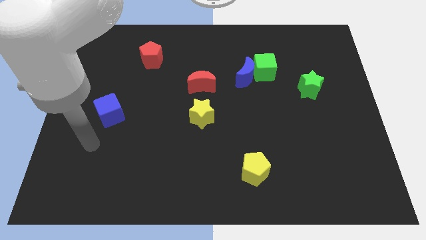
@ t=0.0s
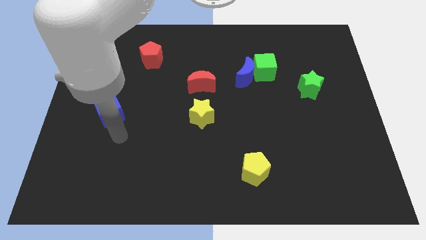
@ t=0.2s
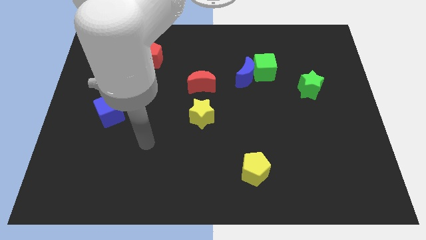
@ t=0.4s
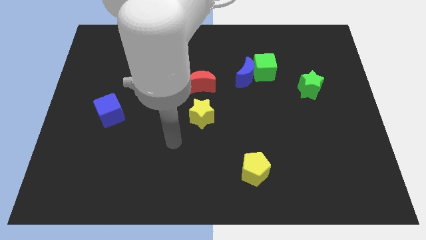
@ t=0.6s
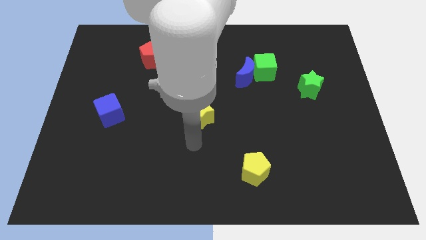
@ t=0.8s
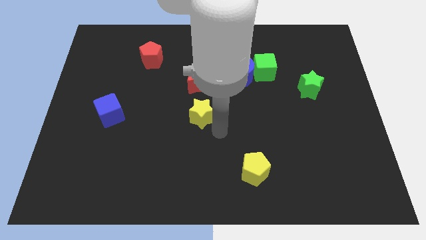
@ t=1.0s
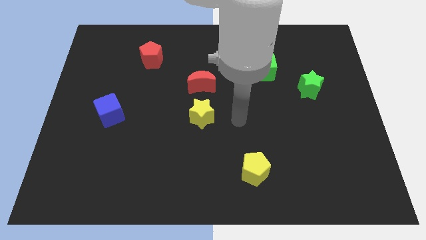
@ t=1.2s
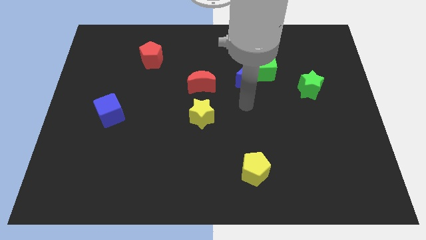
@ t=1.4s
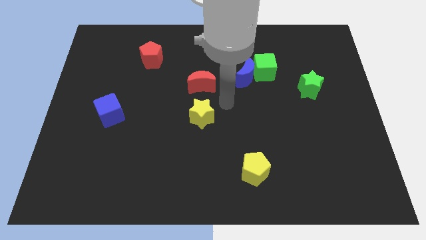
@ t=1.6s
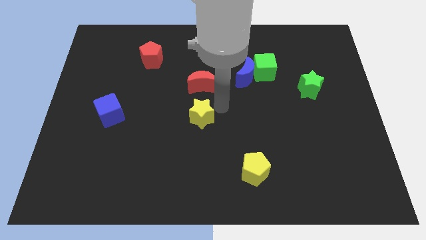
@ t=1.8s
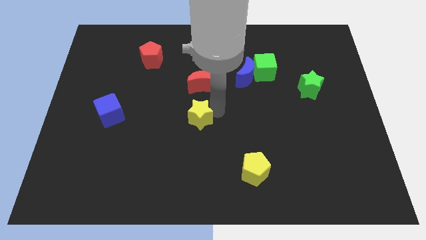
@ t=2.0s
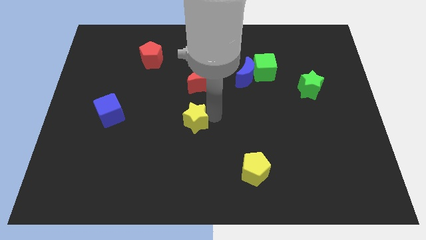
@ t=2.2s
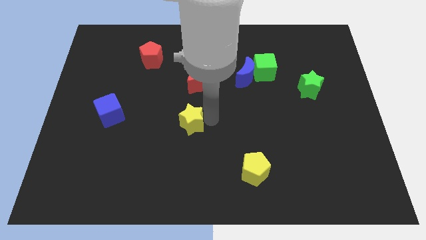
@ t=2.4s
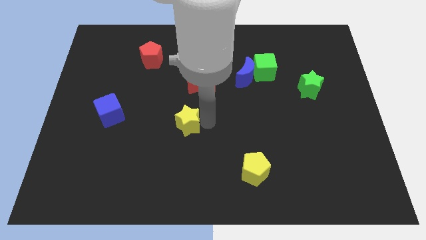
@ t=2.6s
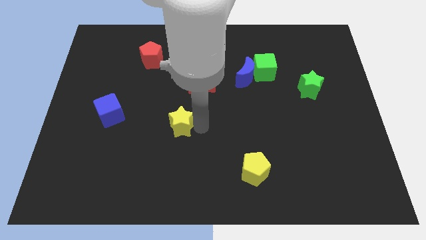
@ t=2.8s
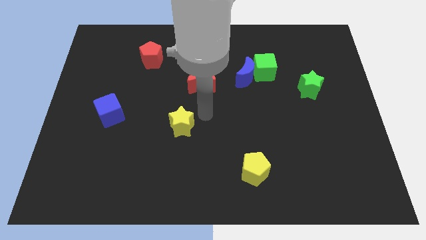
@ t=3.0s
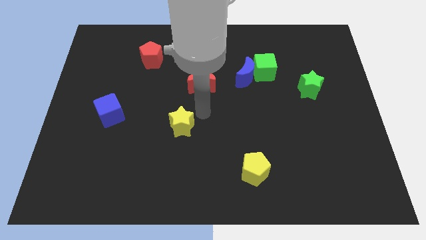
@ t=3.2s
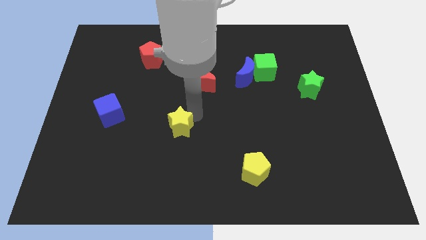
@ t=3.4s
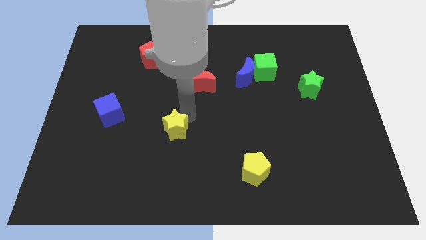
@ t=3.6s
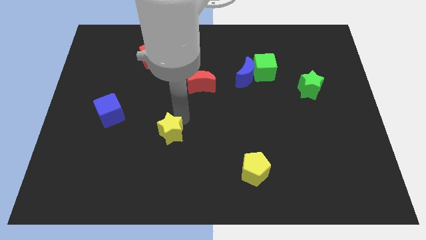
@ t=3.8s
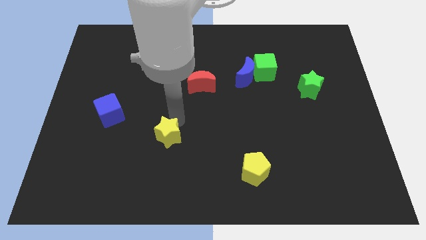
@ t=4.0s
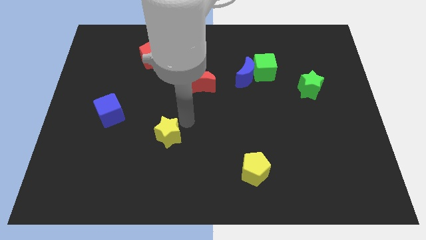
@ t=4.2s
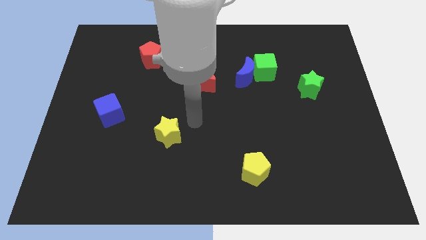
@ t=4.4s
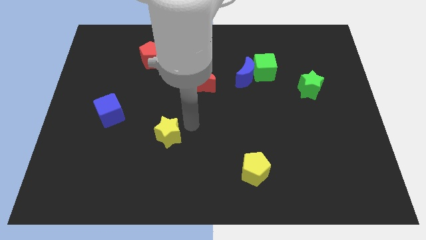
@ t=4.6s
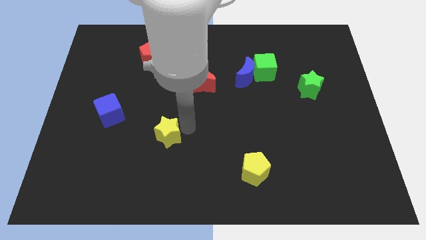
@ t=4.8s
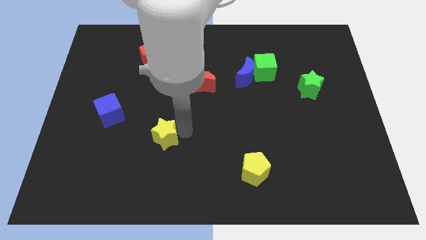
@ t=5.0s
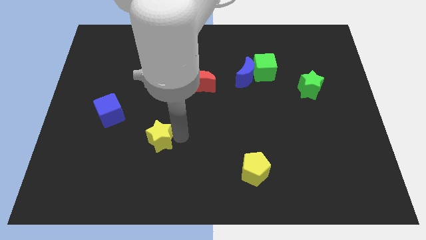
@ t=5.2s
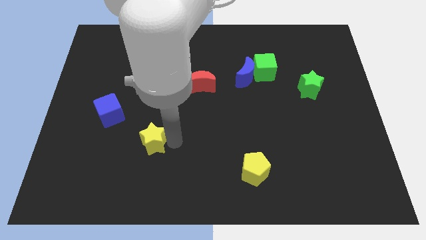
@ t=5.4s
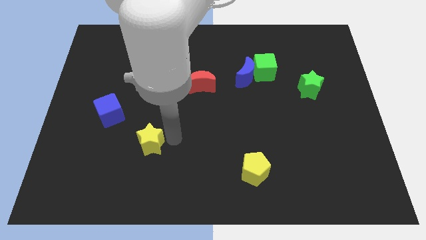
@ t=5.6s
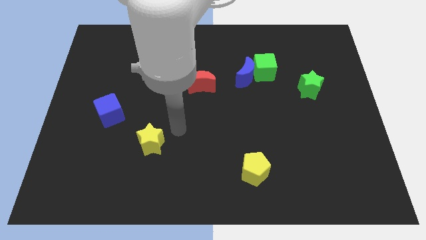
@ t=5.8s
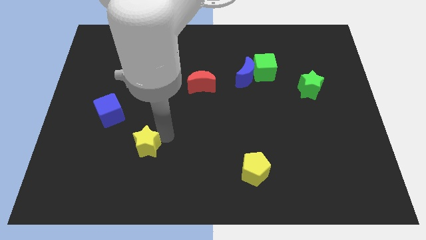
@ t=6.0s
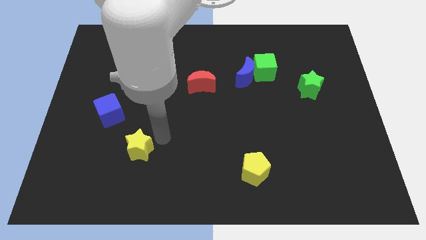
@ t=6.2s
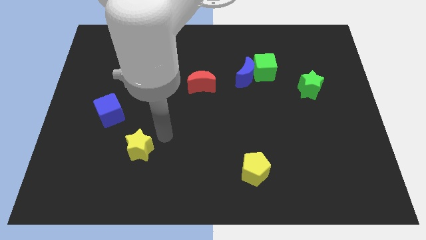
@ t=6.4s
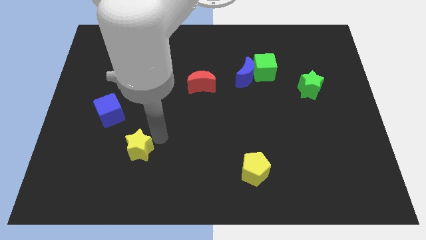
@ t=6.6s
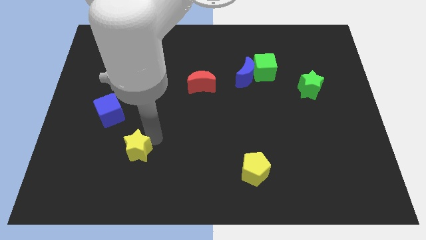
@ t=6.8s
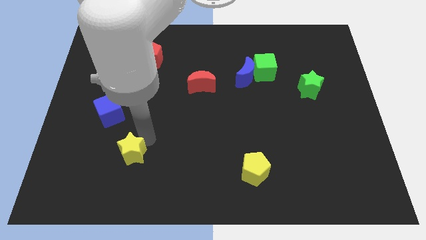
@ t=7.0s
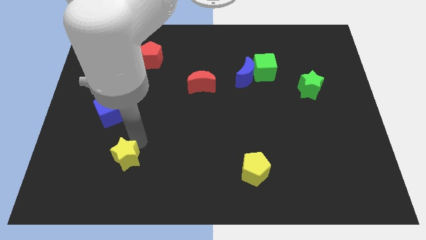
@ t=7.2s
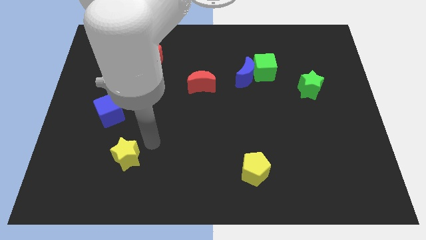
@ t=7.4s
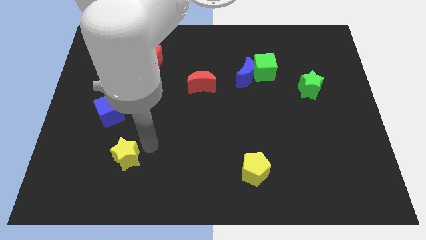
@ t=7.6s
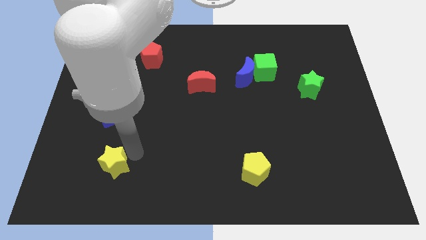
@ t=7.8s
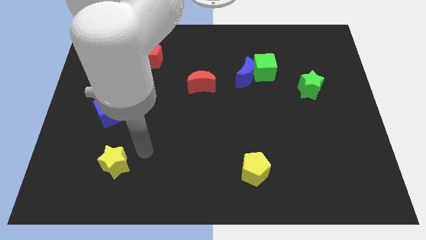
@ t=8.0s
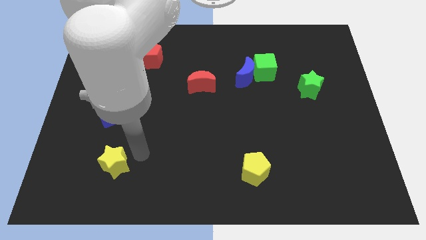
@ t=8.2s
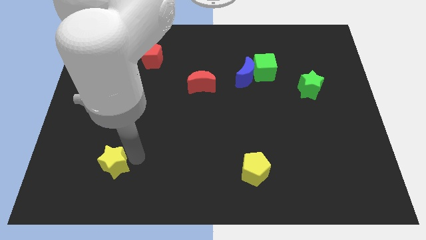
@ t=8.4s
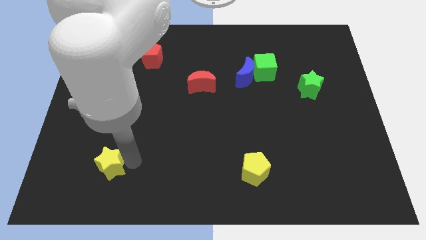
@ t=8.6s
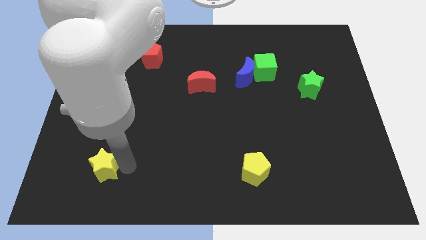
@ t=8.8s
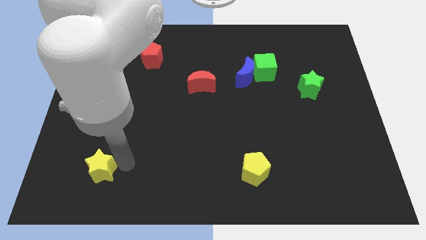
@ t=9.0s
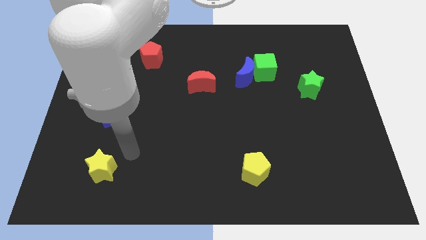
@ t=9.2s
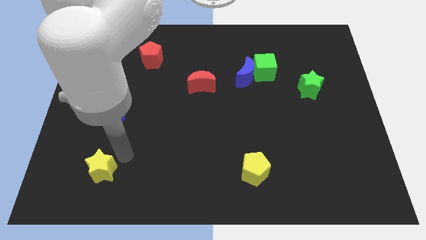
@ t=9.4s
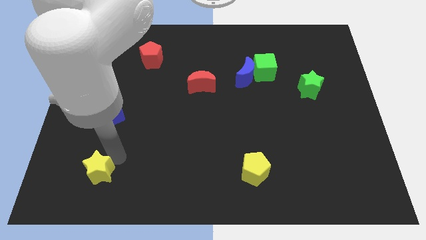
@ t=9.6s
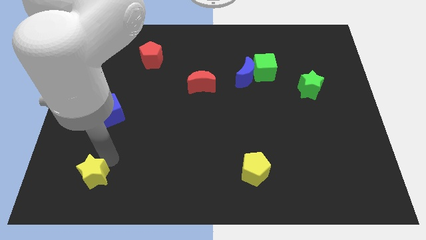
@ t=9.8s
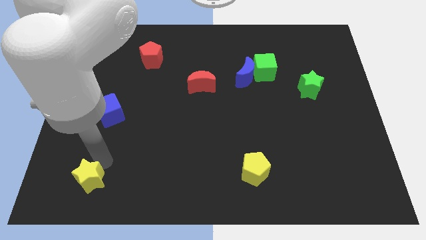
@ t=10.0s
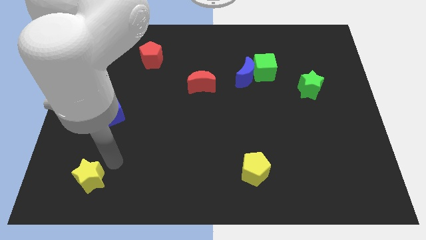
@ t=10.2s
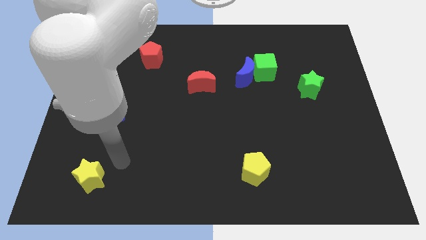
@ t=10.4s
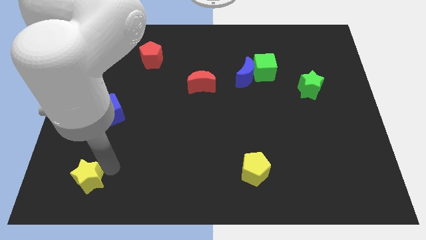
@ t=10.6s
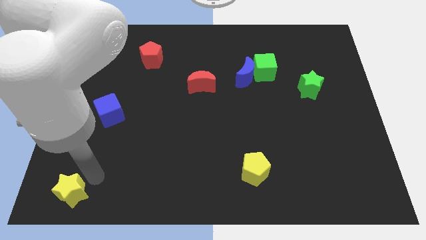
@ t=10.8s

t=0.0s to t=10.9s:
push the yellow star to the bottom left corner

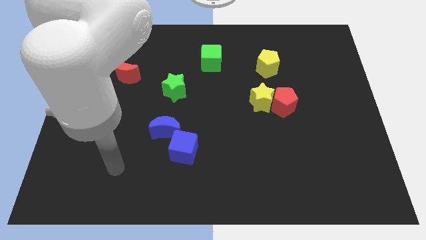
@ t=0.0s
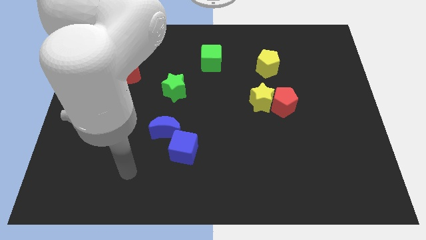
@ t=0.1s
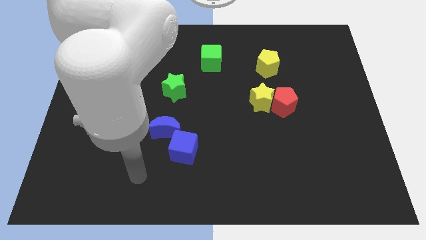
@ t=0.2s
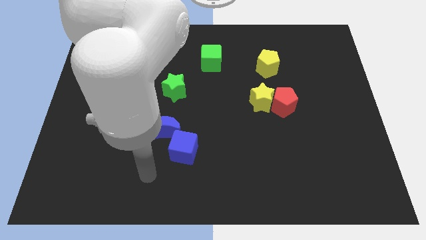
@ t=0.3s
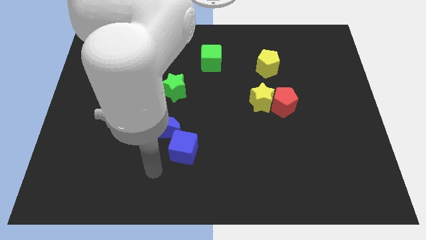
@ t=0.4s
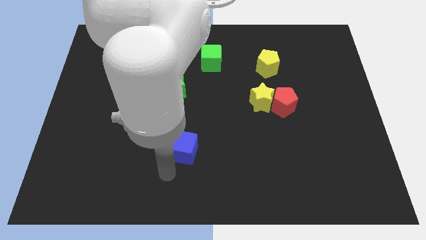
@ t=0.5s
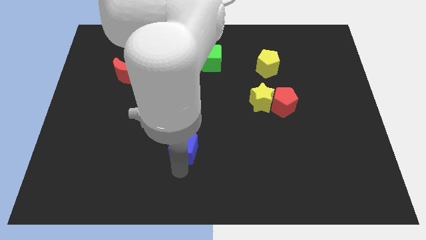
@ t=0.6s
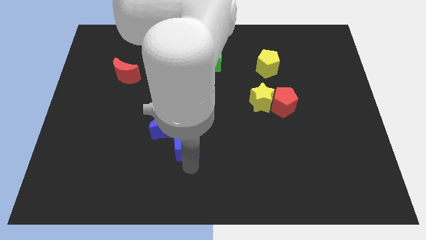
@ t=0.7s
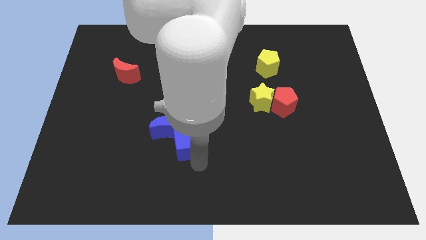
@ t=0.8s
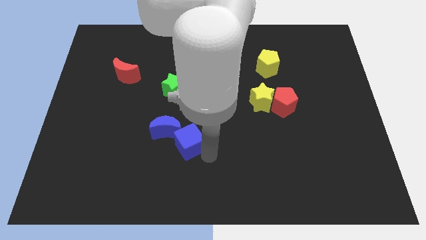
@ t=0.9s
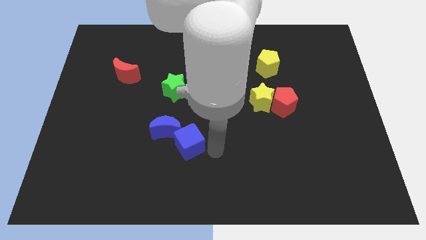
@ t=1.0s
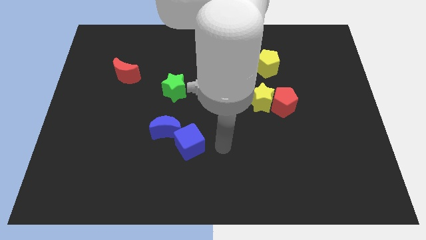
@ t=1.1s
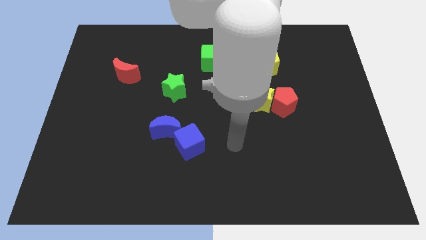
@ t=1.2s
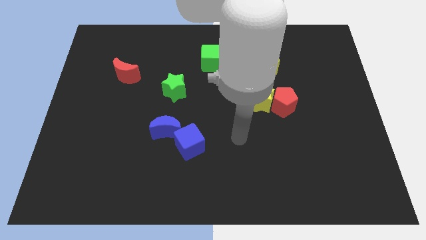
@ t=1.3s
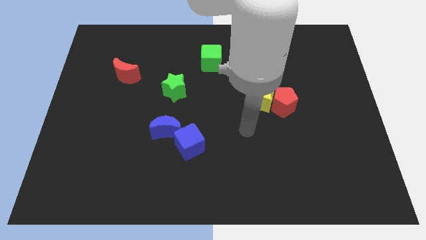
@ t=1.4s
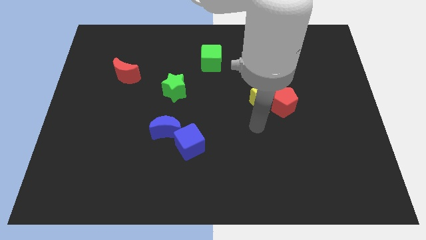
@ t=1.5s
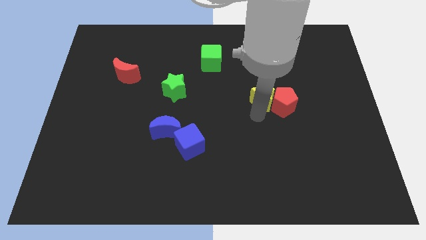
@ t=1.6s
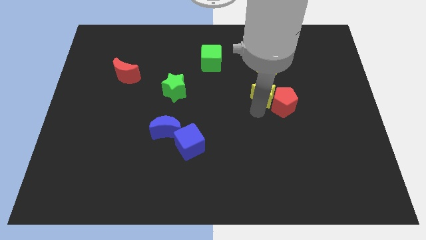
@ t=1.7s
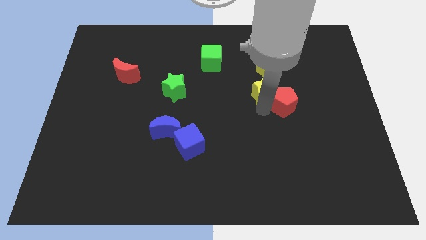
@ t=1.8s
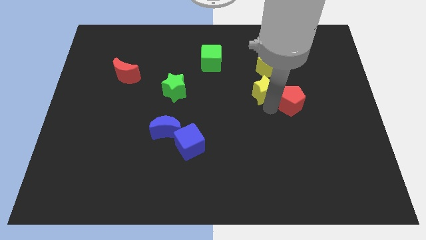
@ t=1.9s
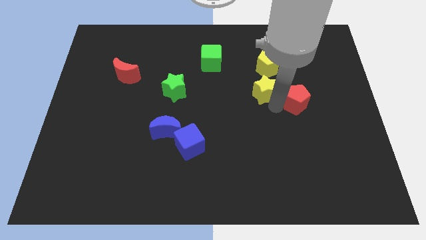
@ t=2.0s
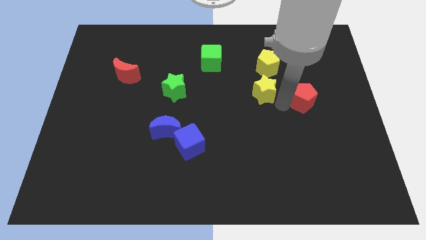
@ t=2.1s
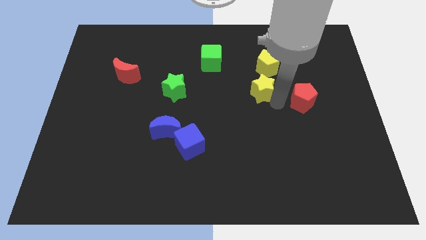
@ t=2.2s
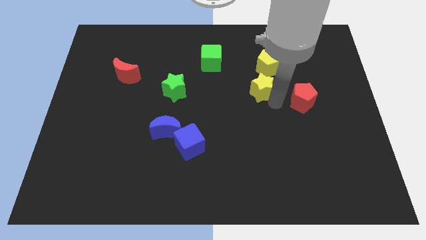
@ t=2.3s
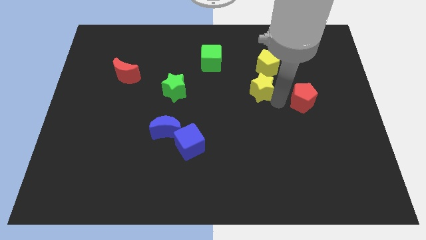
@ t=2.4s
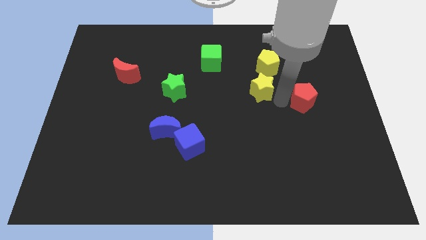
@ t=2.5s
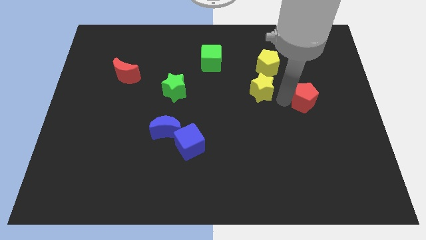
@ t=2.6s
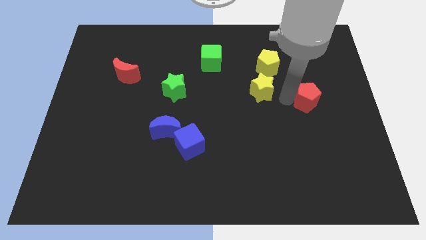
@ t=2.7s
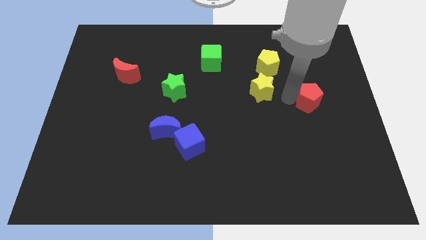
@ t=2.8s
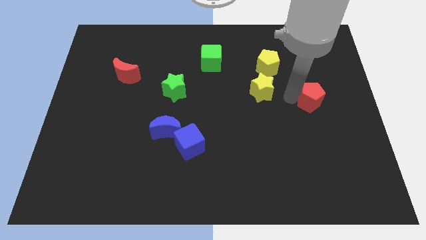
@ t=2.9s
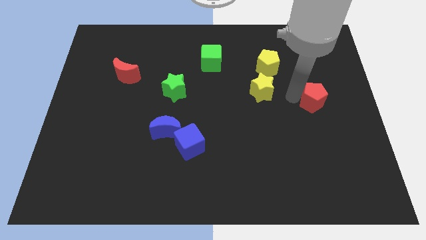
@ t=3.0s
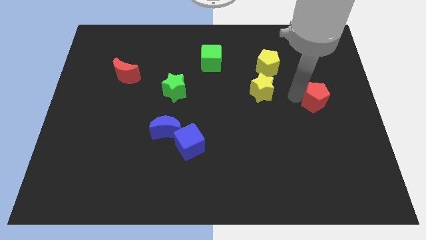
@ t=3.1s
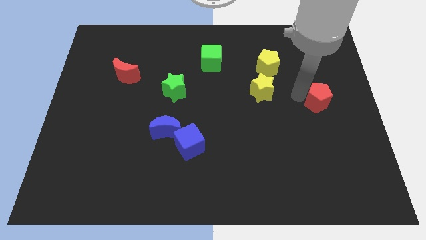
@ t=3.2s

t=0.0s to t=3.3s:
move the red pentagon to the right side of the board
